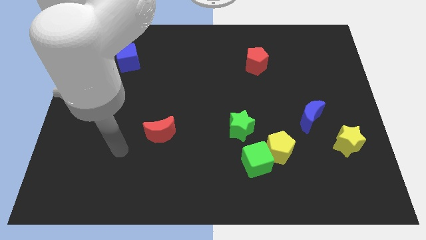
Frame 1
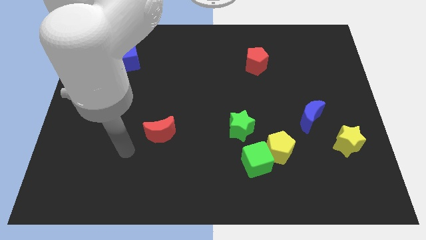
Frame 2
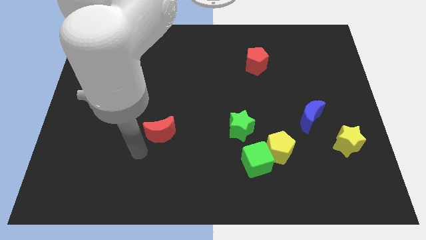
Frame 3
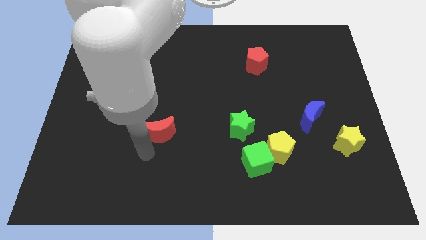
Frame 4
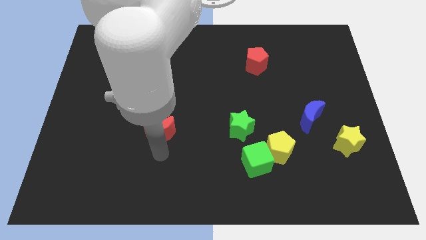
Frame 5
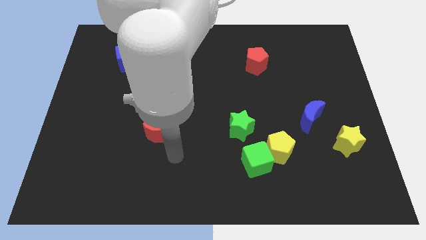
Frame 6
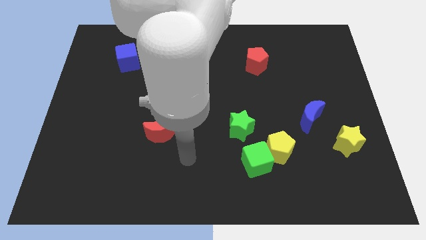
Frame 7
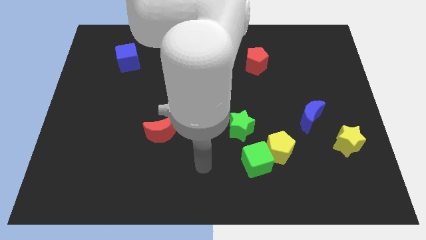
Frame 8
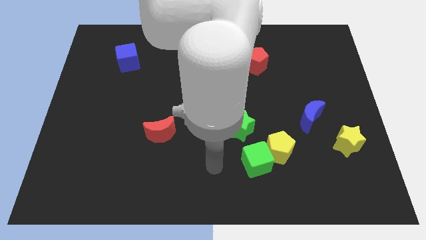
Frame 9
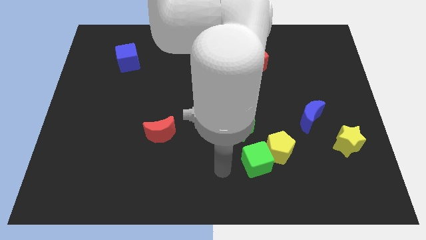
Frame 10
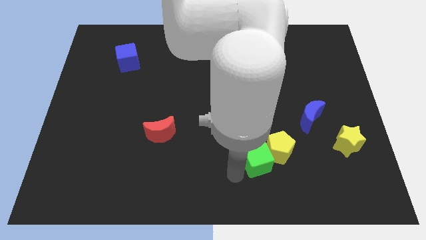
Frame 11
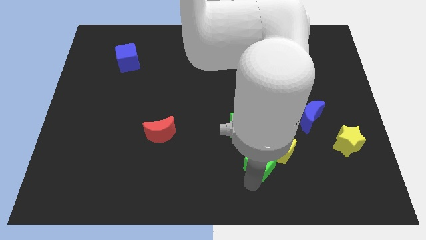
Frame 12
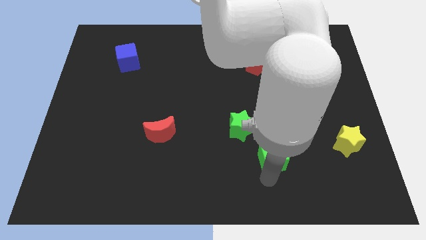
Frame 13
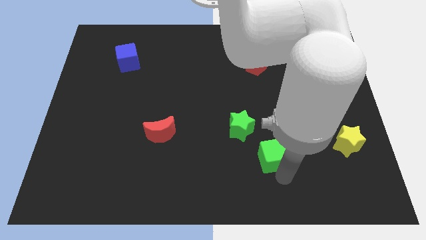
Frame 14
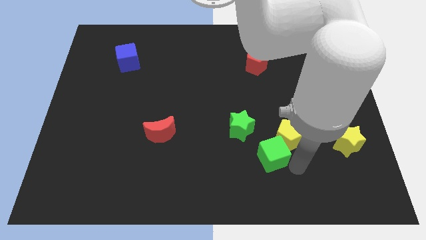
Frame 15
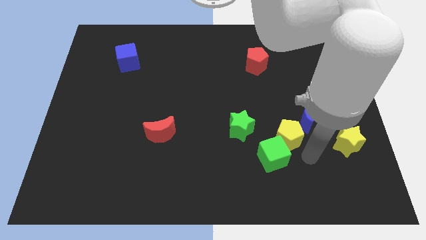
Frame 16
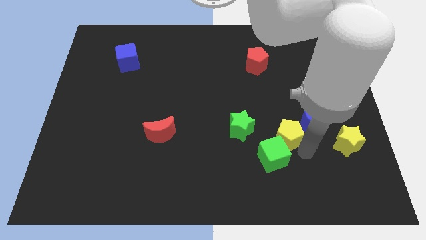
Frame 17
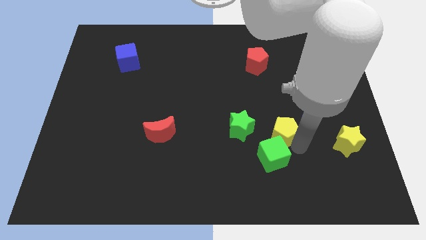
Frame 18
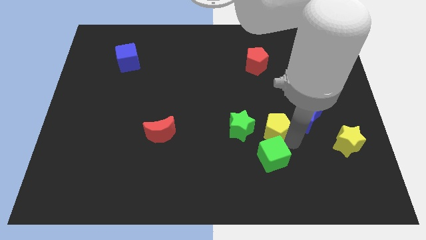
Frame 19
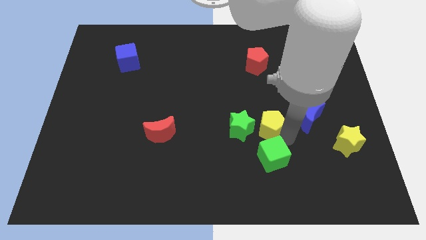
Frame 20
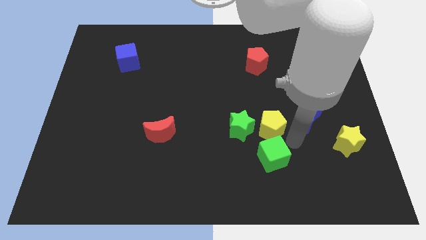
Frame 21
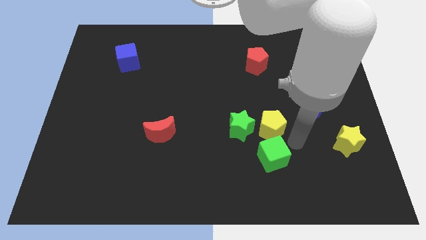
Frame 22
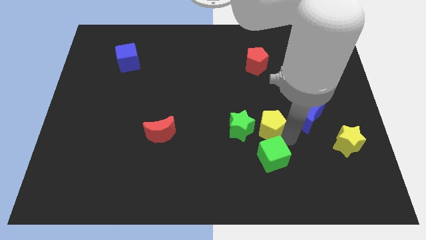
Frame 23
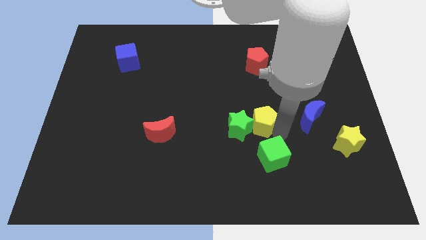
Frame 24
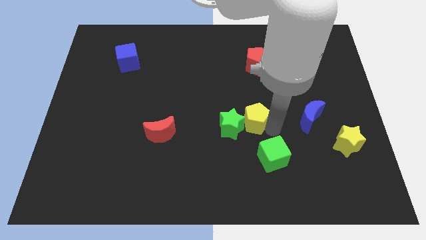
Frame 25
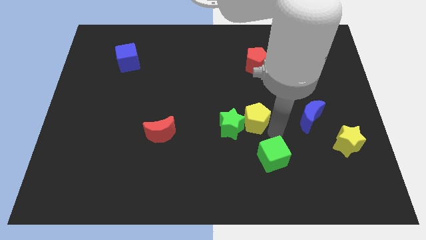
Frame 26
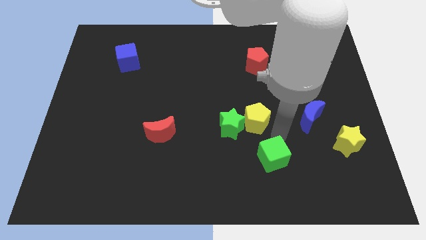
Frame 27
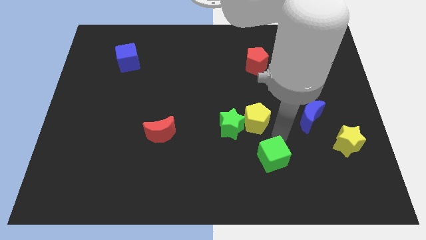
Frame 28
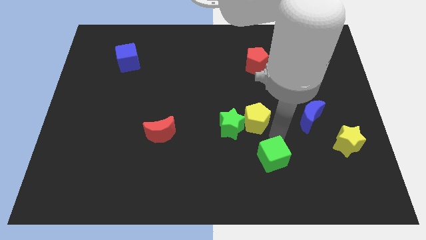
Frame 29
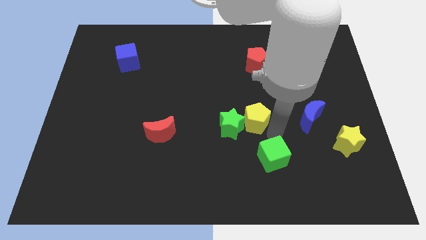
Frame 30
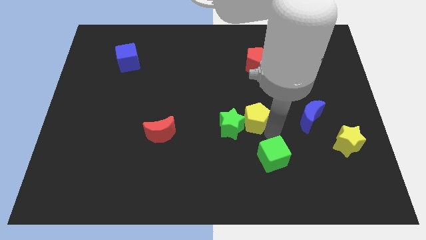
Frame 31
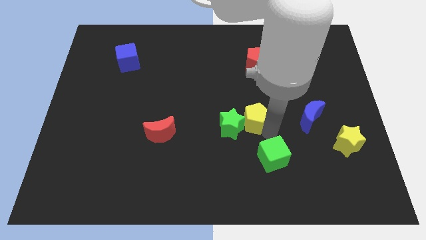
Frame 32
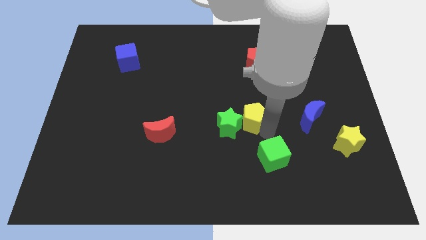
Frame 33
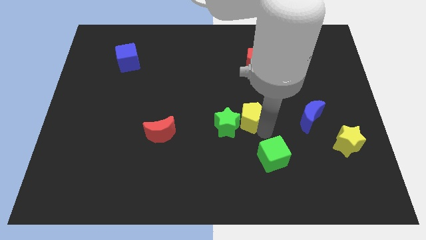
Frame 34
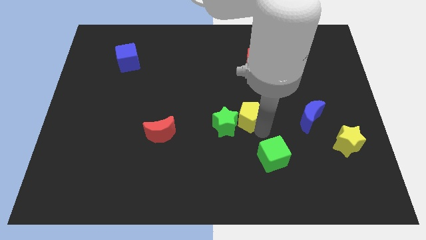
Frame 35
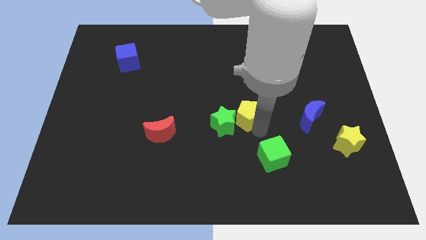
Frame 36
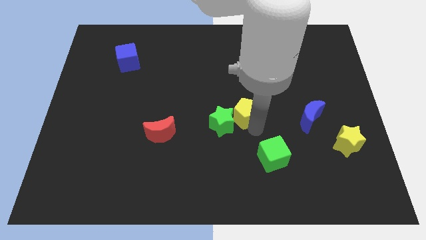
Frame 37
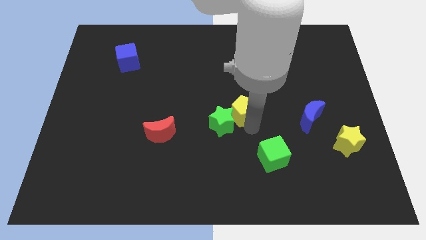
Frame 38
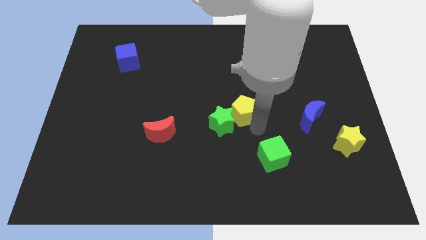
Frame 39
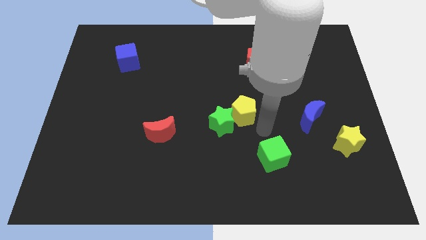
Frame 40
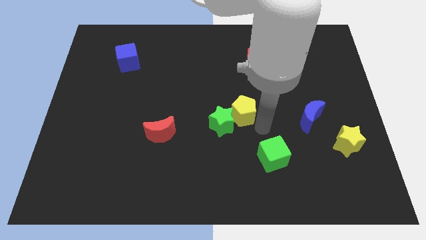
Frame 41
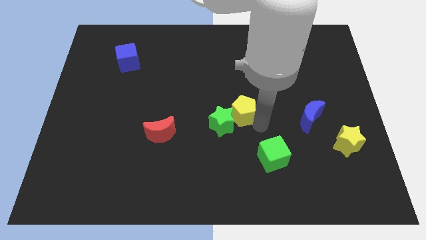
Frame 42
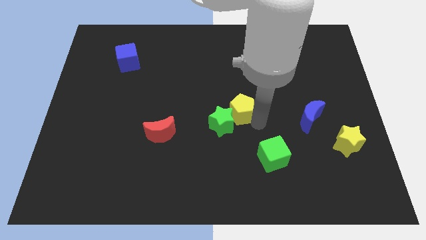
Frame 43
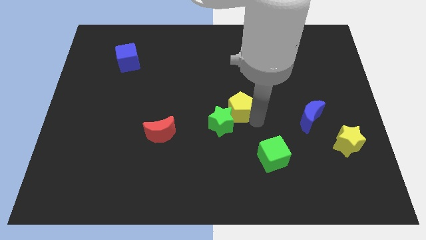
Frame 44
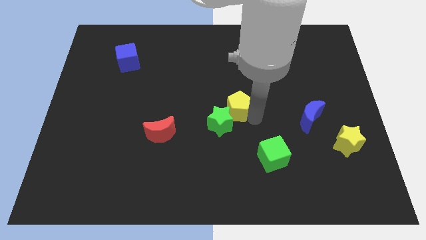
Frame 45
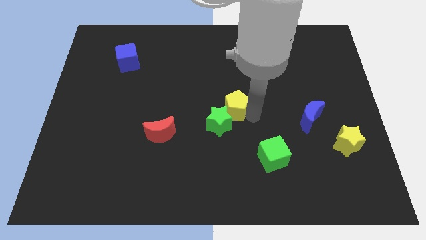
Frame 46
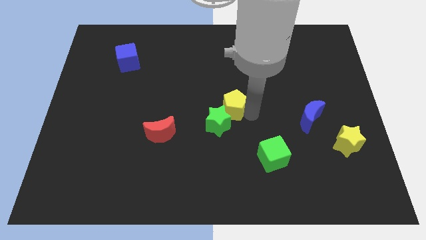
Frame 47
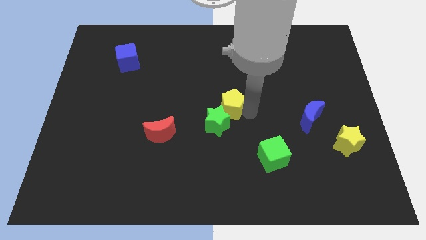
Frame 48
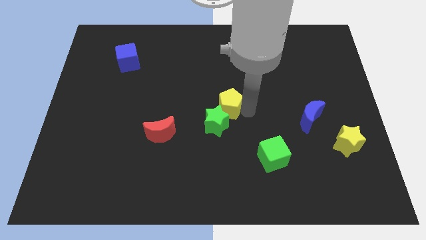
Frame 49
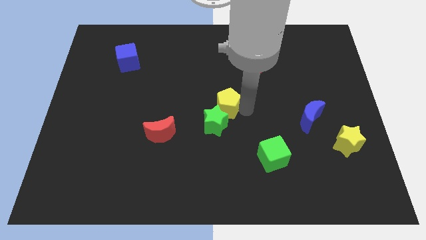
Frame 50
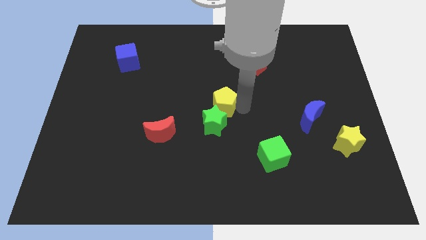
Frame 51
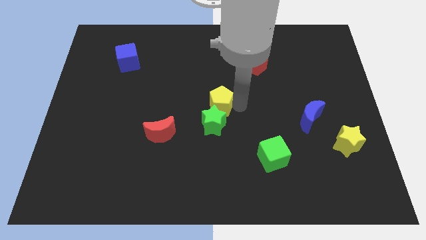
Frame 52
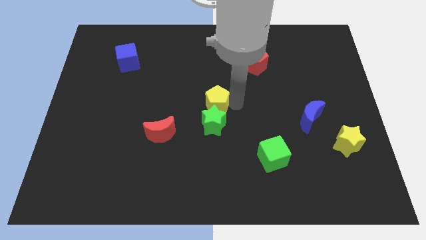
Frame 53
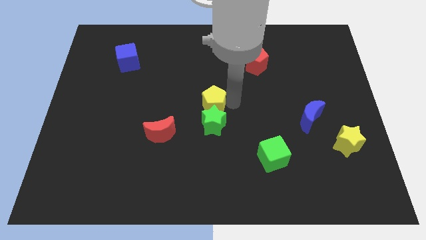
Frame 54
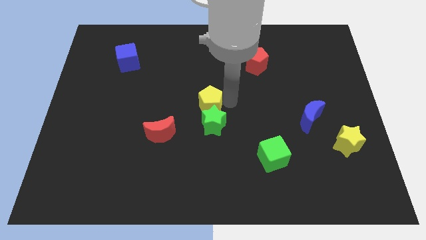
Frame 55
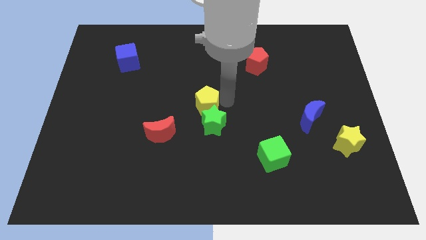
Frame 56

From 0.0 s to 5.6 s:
push the yellow pentagon diagonally upwards and left

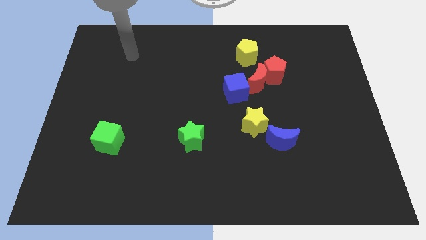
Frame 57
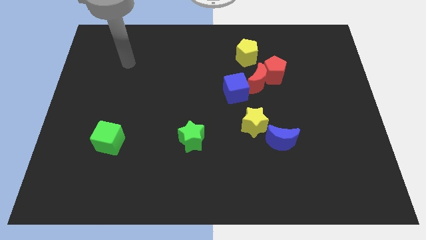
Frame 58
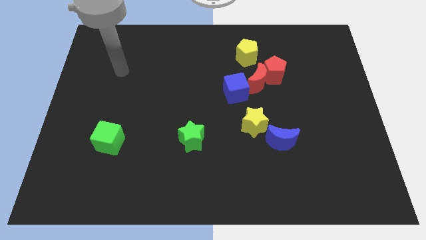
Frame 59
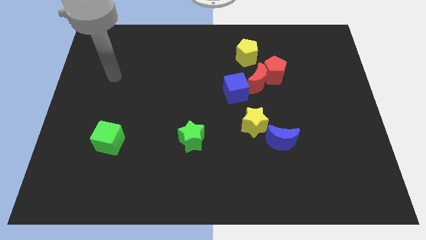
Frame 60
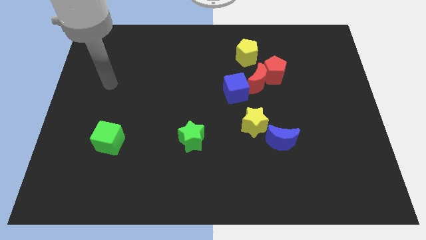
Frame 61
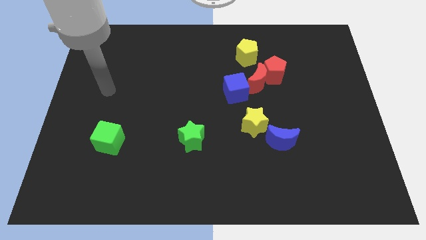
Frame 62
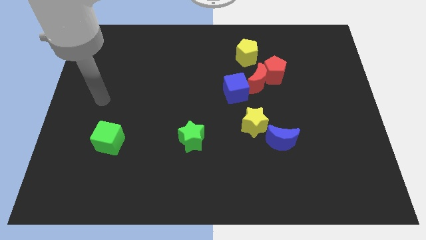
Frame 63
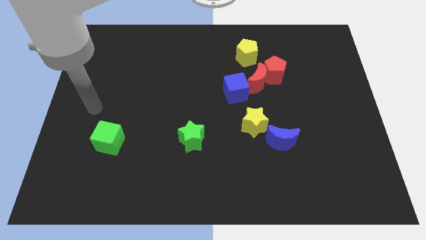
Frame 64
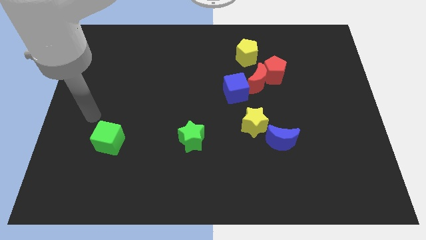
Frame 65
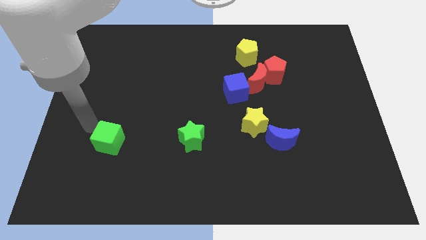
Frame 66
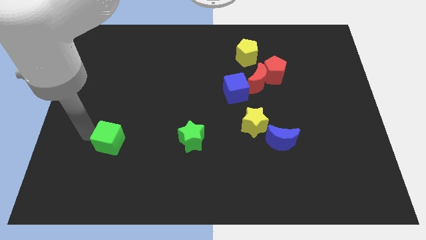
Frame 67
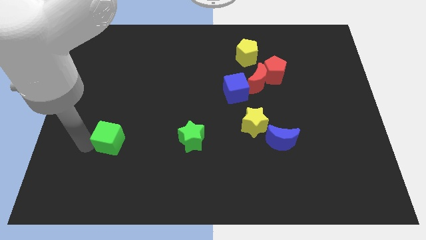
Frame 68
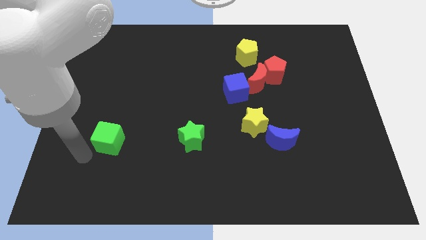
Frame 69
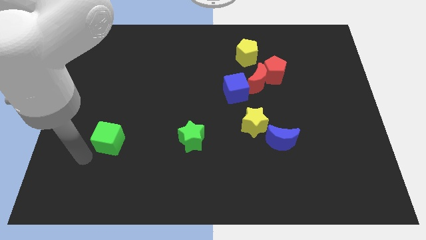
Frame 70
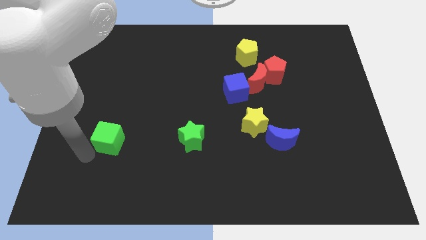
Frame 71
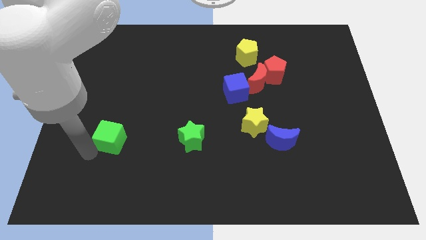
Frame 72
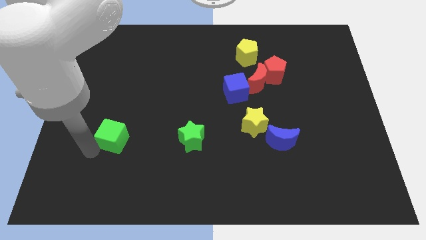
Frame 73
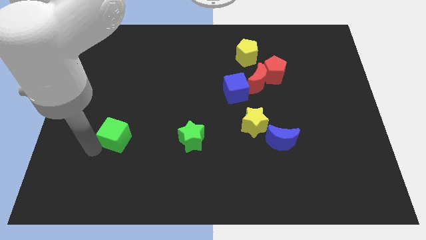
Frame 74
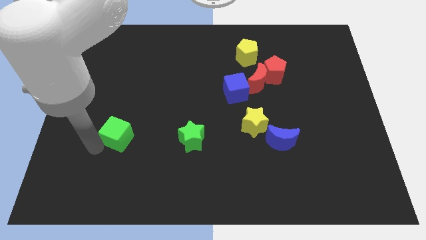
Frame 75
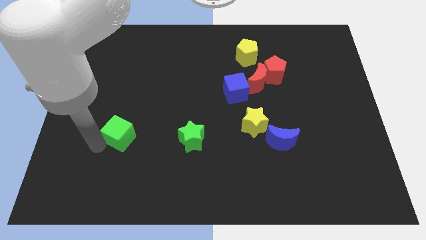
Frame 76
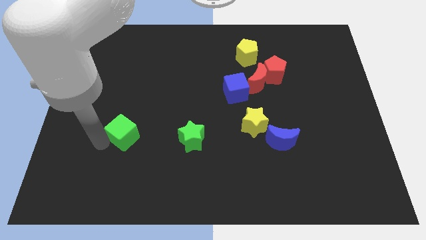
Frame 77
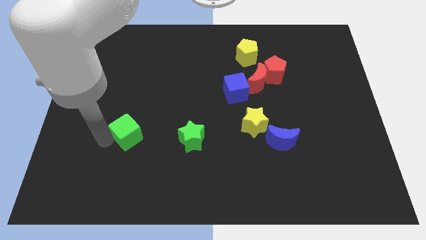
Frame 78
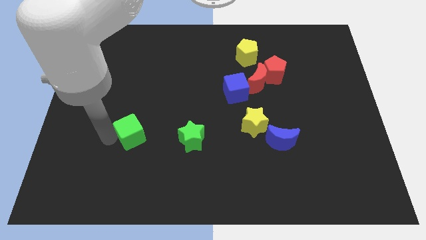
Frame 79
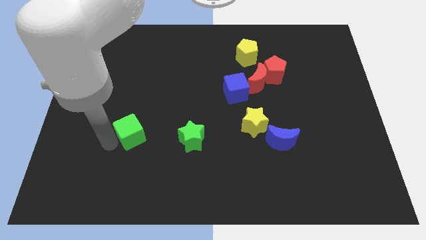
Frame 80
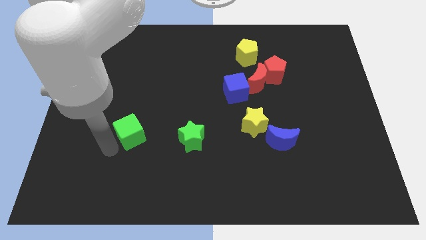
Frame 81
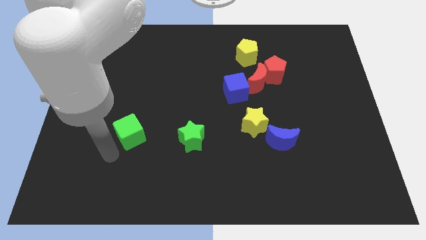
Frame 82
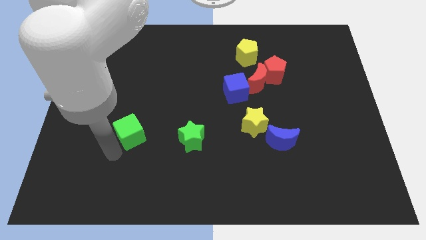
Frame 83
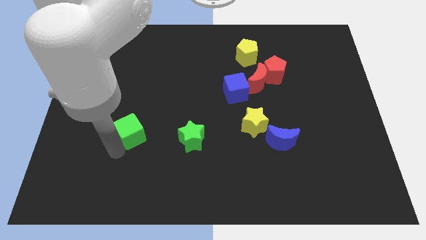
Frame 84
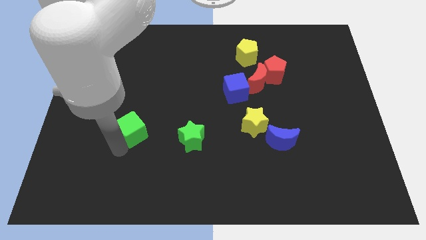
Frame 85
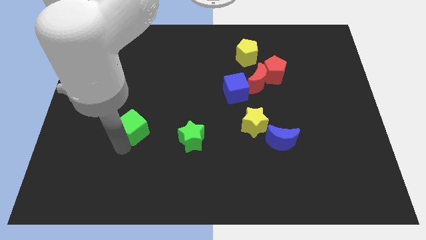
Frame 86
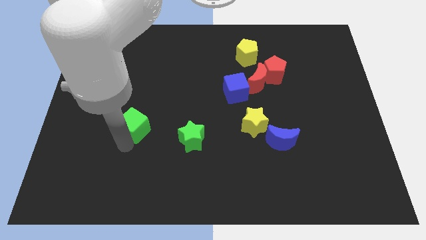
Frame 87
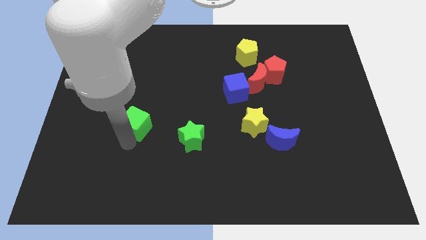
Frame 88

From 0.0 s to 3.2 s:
slide the green cube up and right a little
